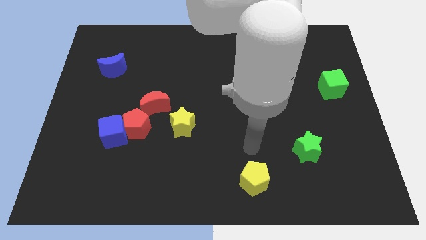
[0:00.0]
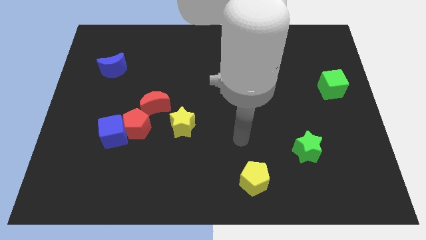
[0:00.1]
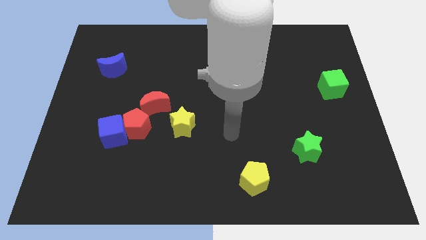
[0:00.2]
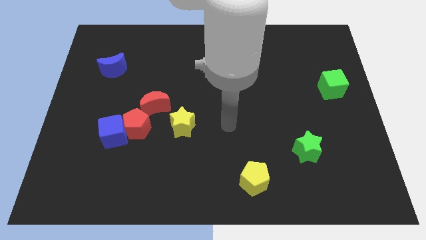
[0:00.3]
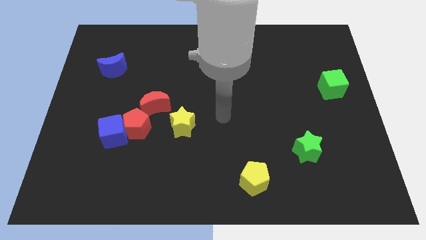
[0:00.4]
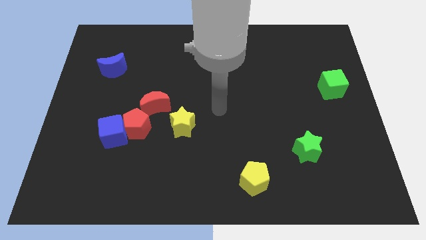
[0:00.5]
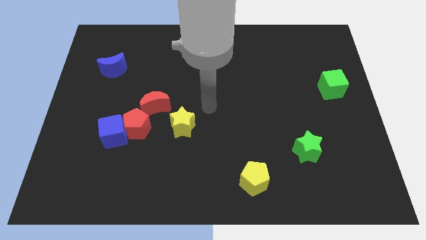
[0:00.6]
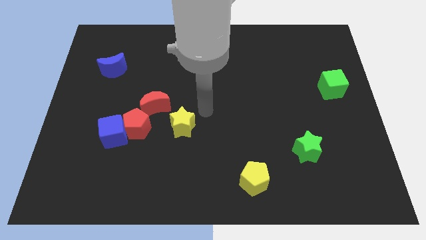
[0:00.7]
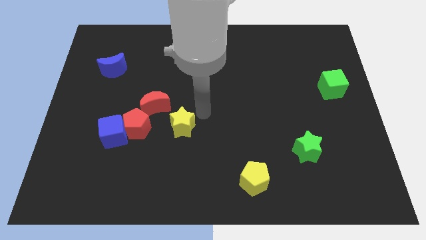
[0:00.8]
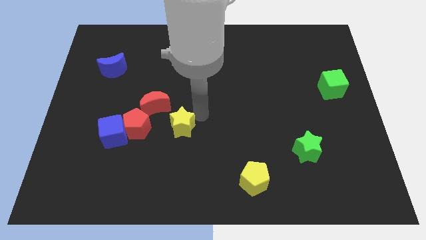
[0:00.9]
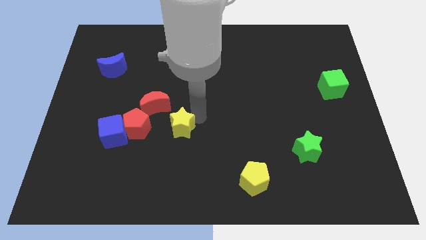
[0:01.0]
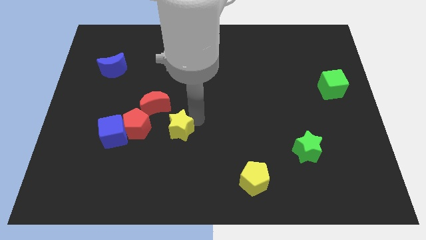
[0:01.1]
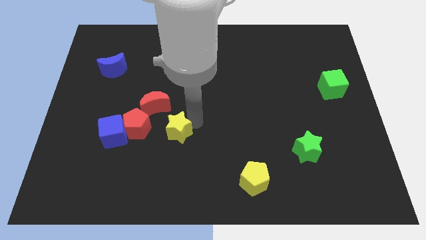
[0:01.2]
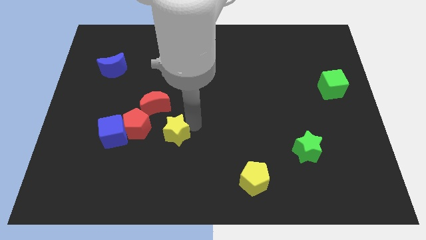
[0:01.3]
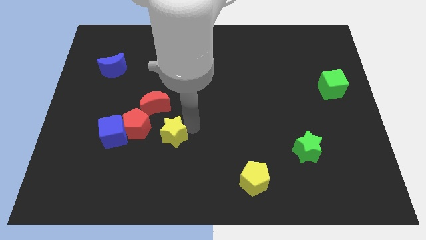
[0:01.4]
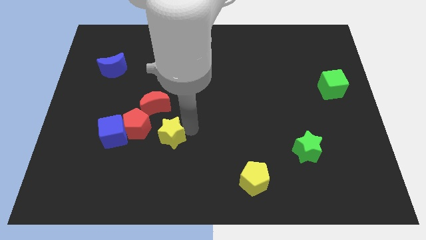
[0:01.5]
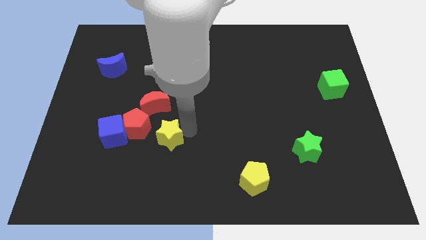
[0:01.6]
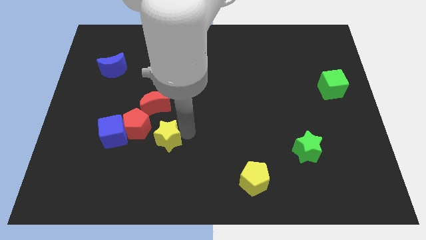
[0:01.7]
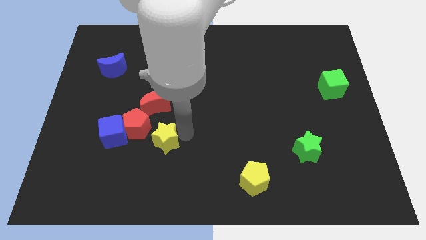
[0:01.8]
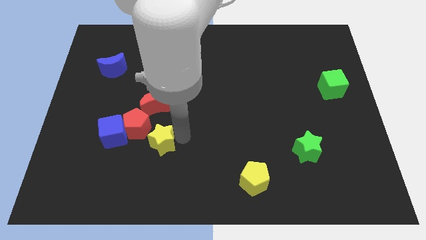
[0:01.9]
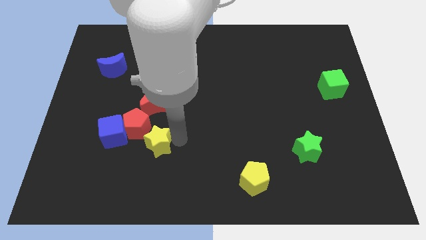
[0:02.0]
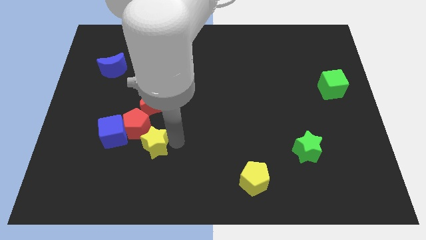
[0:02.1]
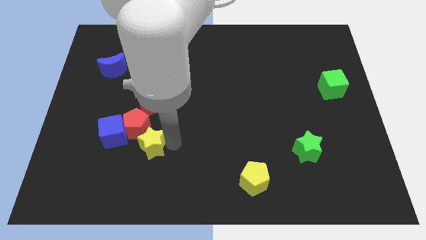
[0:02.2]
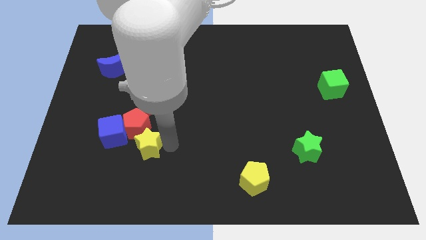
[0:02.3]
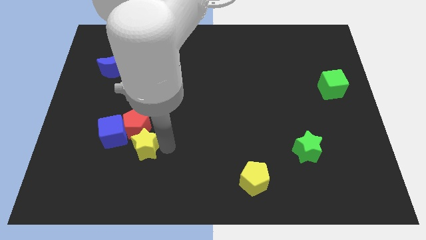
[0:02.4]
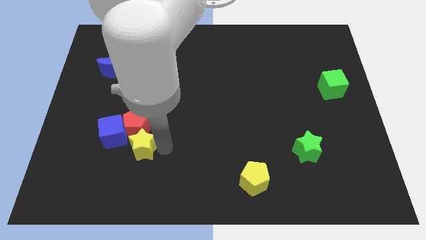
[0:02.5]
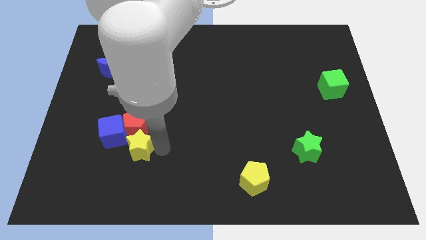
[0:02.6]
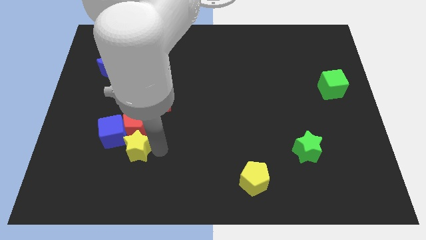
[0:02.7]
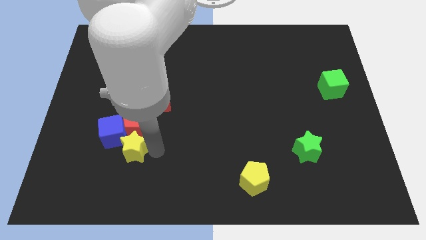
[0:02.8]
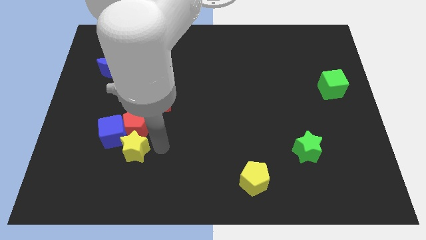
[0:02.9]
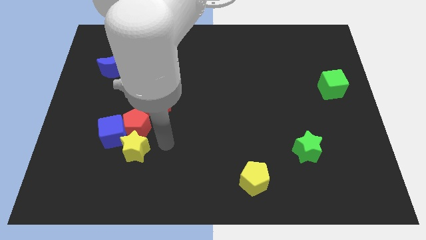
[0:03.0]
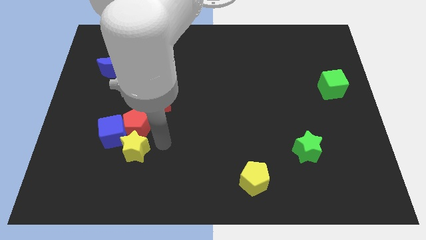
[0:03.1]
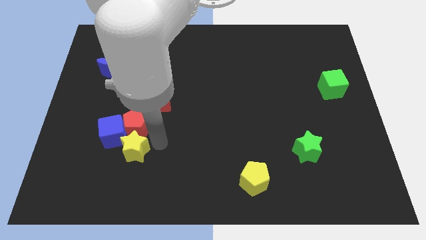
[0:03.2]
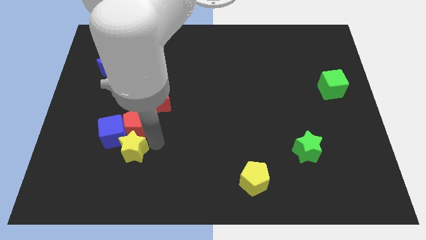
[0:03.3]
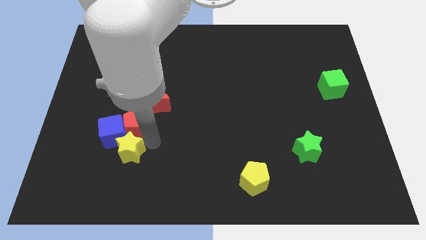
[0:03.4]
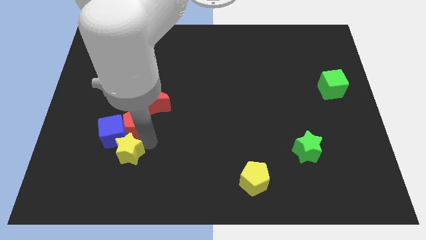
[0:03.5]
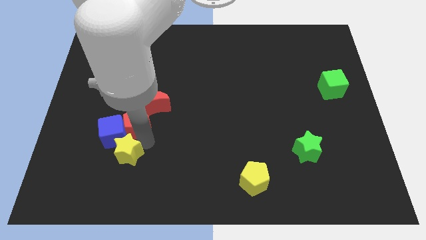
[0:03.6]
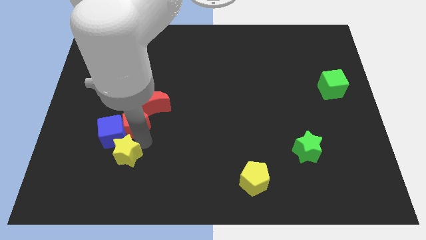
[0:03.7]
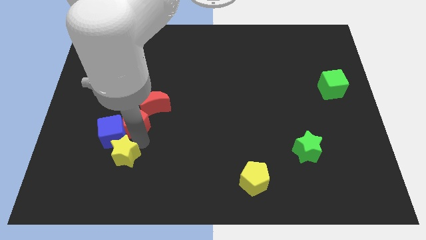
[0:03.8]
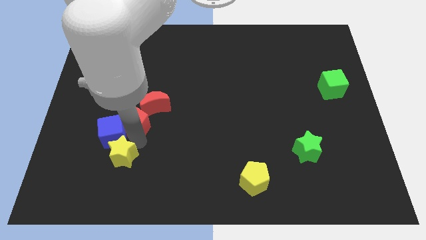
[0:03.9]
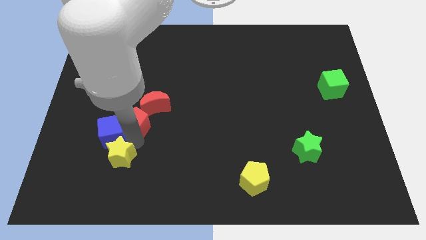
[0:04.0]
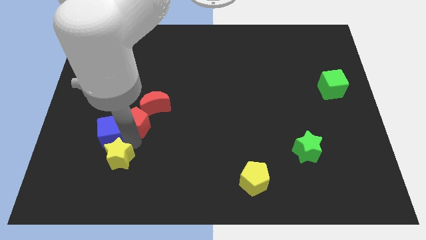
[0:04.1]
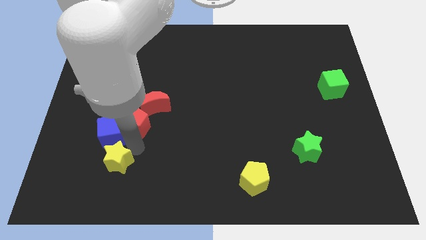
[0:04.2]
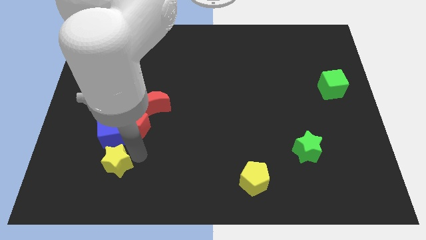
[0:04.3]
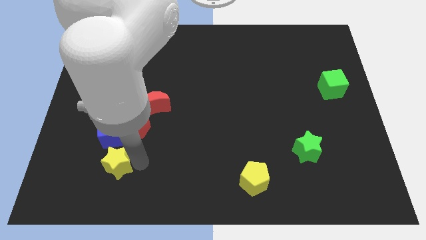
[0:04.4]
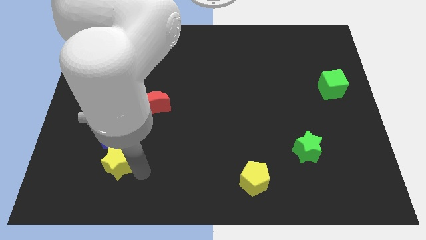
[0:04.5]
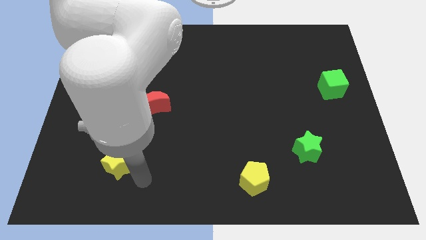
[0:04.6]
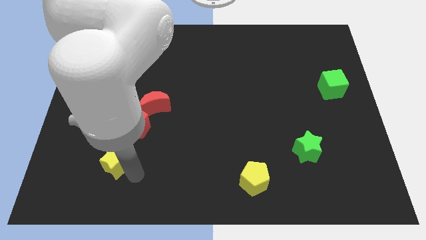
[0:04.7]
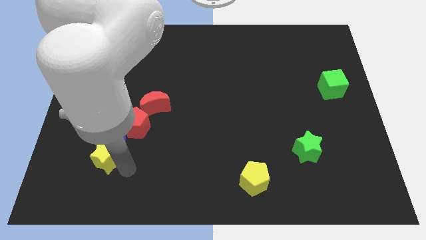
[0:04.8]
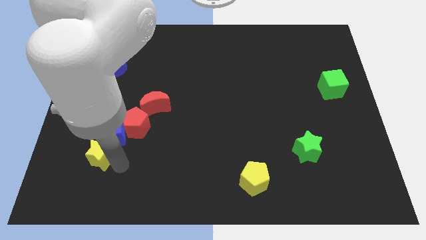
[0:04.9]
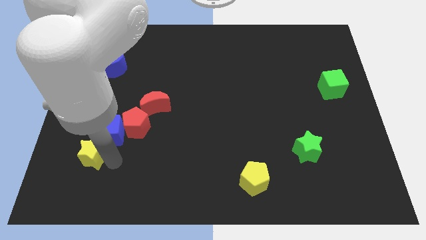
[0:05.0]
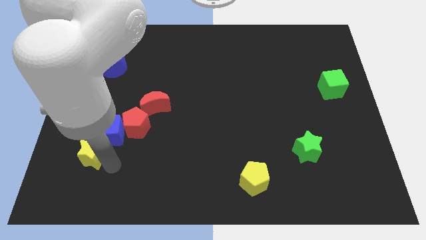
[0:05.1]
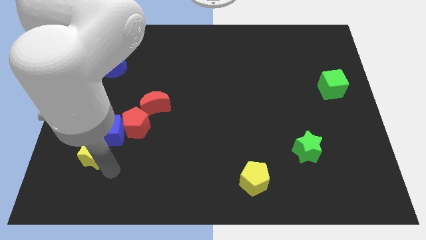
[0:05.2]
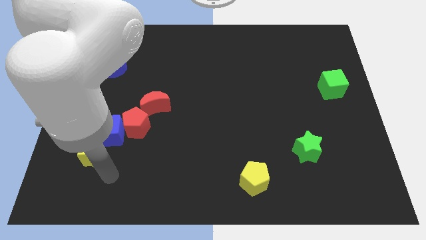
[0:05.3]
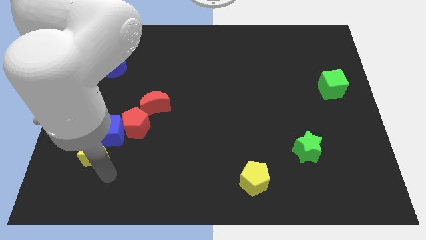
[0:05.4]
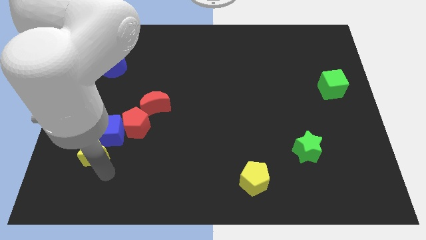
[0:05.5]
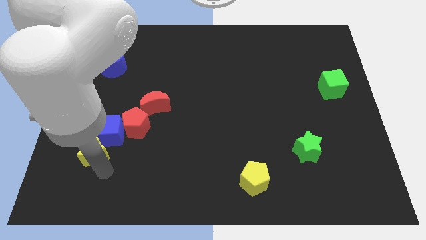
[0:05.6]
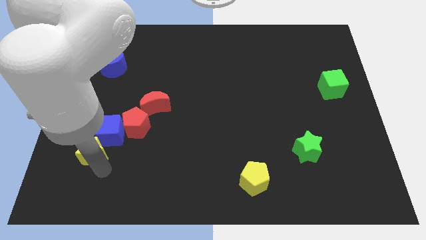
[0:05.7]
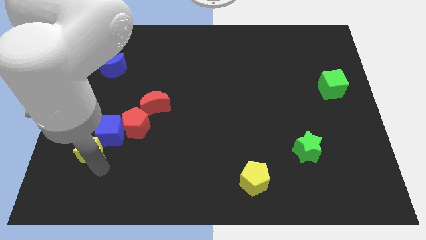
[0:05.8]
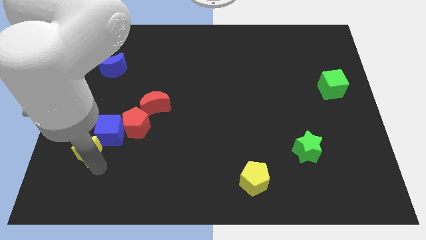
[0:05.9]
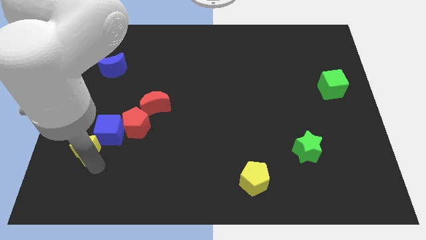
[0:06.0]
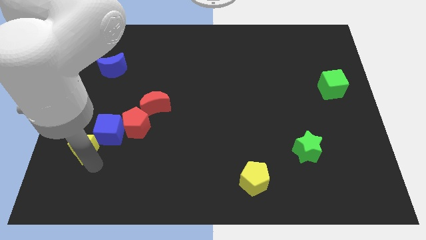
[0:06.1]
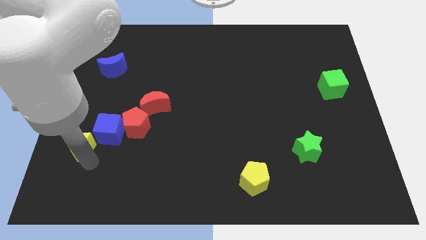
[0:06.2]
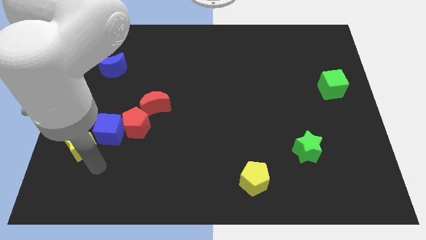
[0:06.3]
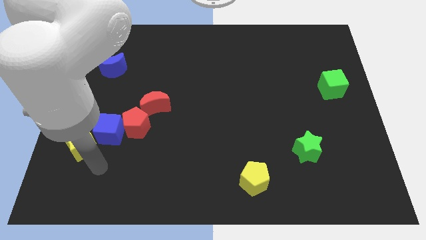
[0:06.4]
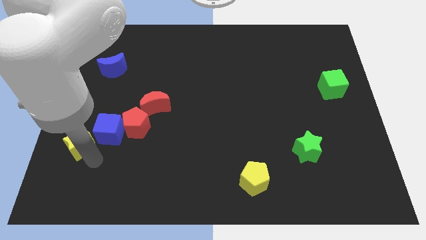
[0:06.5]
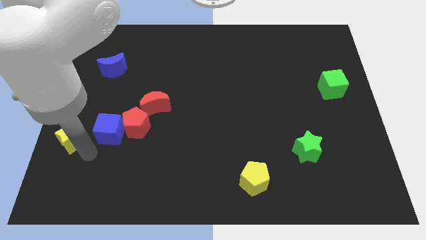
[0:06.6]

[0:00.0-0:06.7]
slide the yellow star to the center left

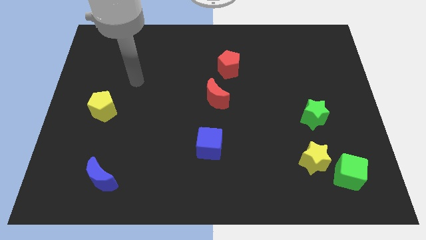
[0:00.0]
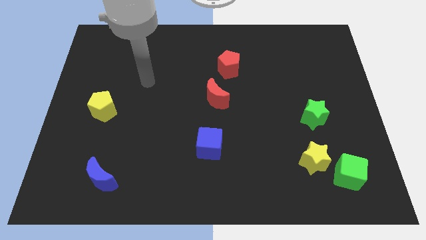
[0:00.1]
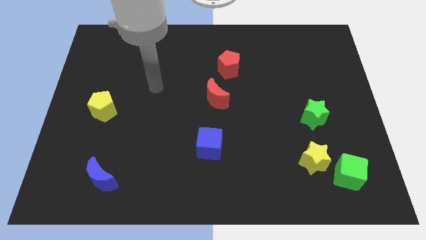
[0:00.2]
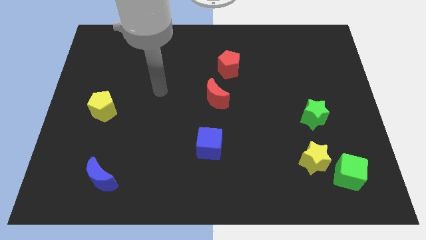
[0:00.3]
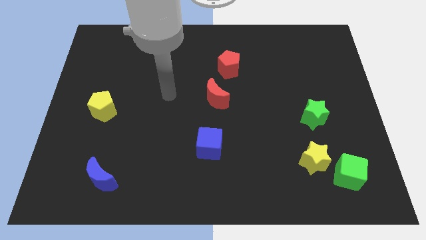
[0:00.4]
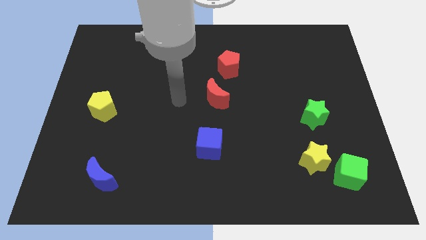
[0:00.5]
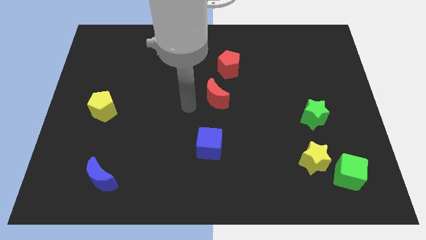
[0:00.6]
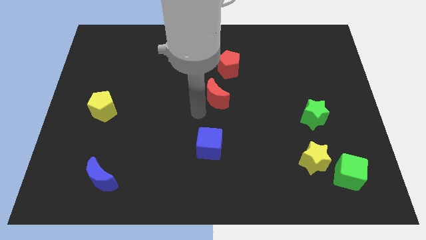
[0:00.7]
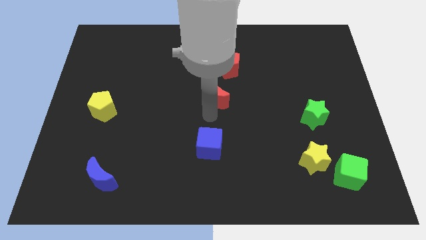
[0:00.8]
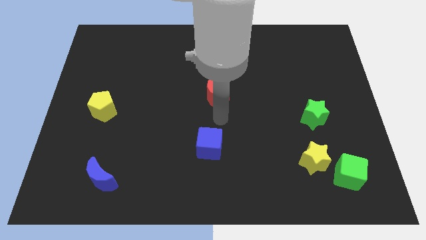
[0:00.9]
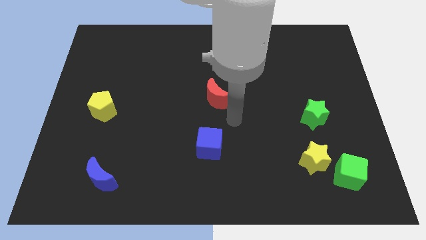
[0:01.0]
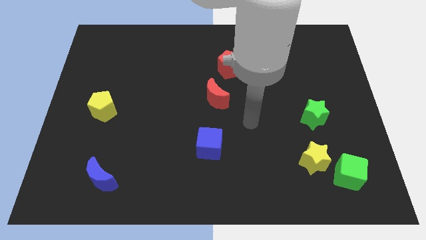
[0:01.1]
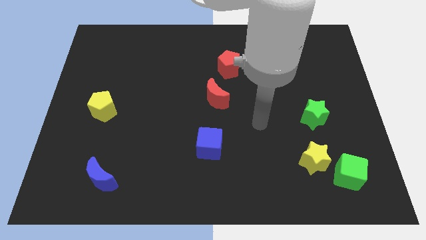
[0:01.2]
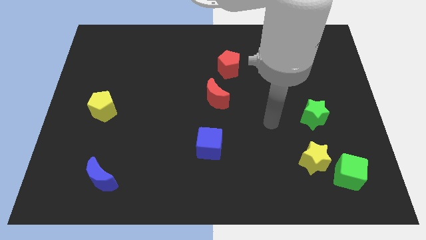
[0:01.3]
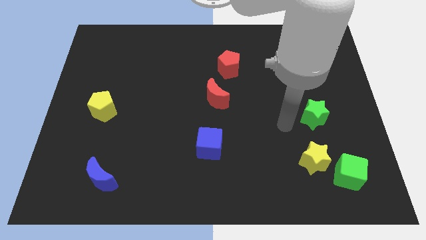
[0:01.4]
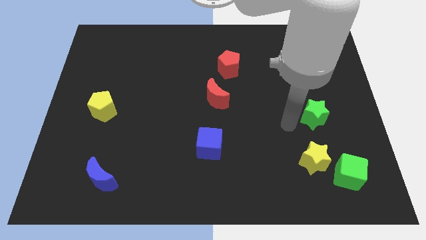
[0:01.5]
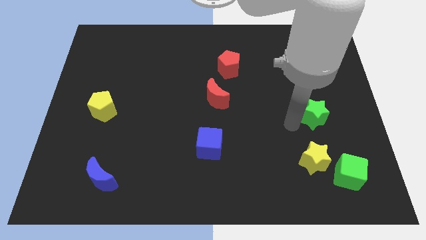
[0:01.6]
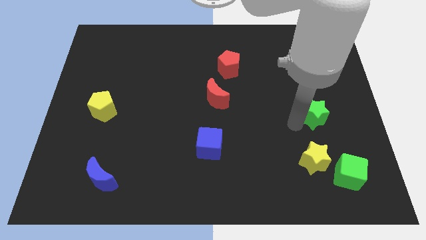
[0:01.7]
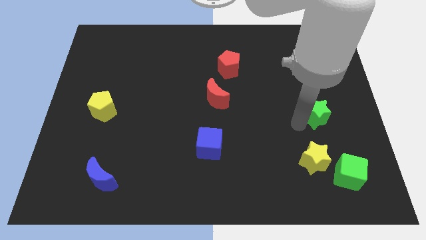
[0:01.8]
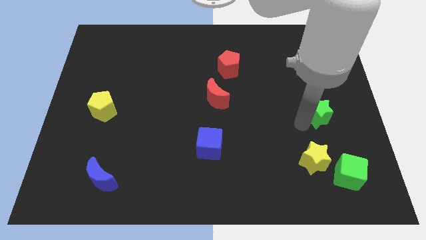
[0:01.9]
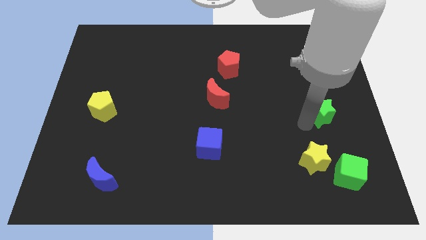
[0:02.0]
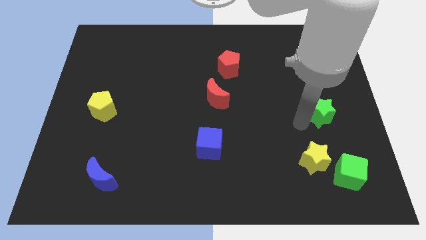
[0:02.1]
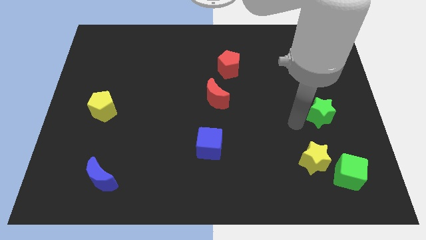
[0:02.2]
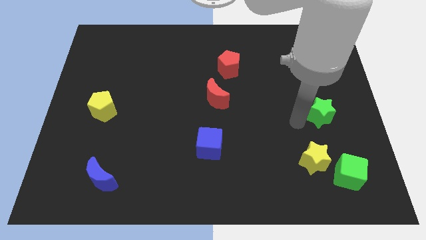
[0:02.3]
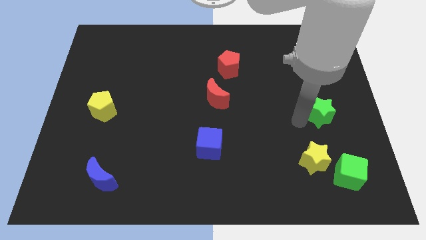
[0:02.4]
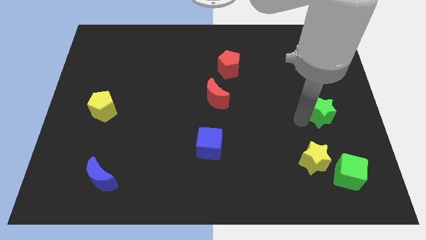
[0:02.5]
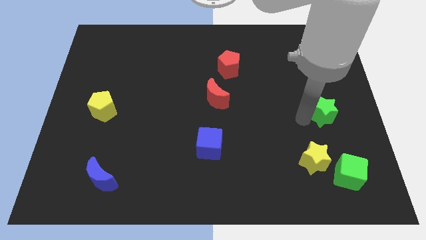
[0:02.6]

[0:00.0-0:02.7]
slide the green star to the right side
